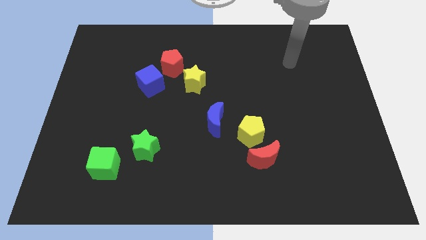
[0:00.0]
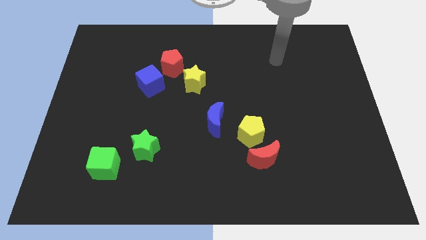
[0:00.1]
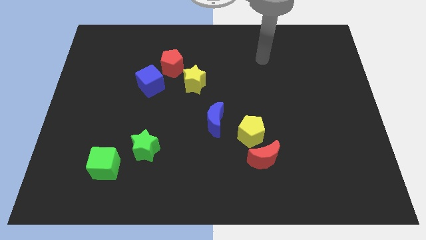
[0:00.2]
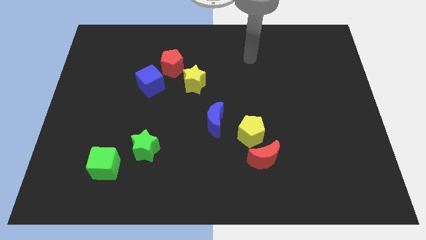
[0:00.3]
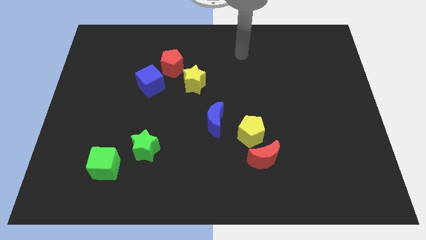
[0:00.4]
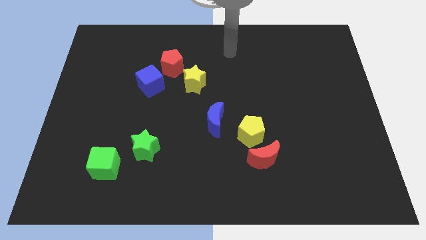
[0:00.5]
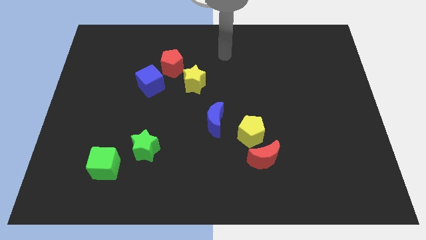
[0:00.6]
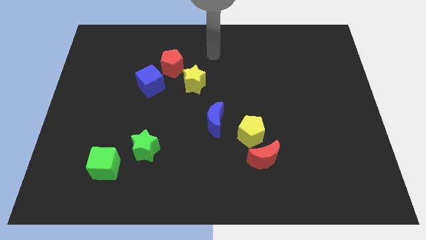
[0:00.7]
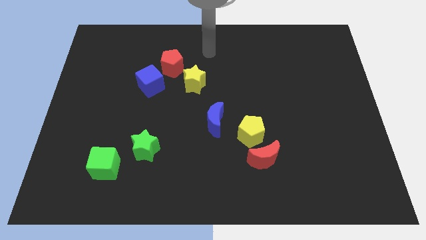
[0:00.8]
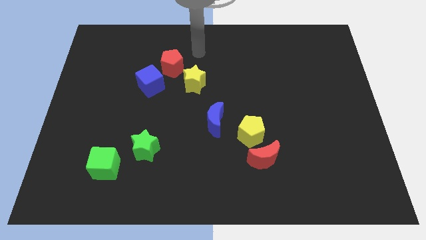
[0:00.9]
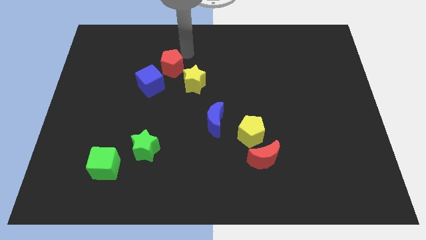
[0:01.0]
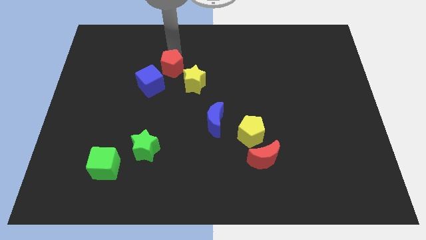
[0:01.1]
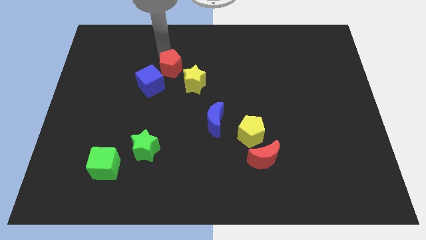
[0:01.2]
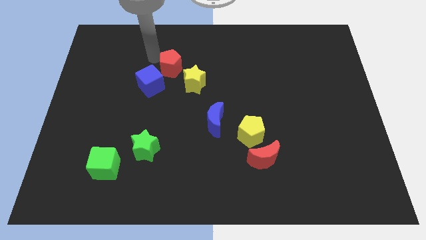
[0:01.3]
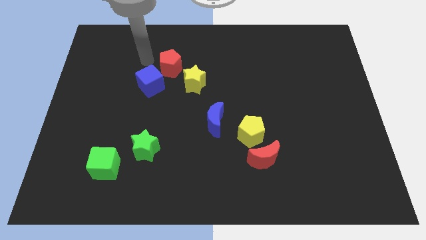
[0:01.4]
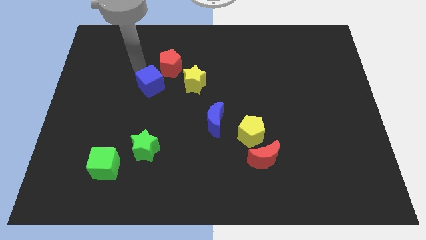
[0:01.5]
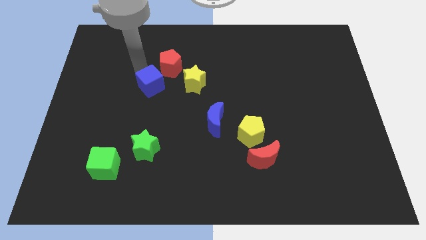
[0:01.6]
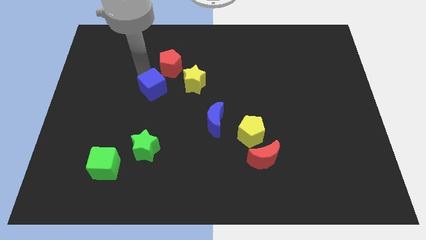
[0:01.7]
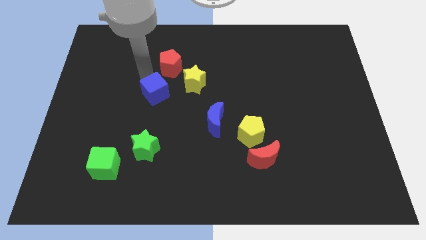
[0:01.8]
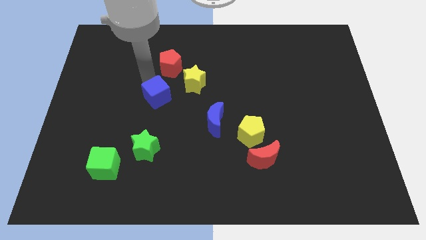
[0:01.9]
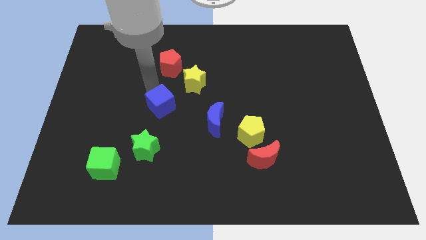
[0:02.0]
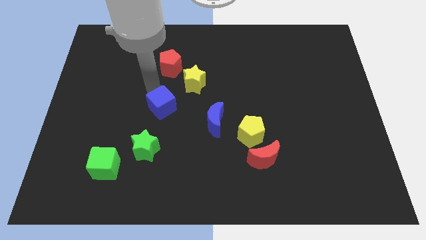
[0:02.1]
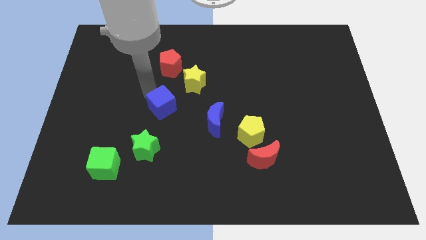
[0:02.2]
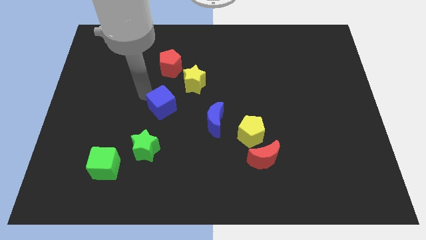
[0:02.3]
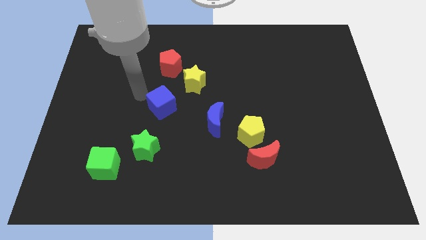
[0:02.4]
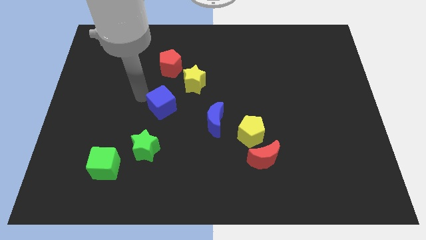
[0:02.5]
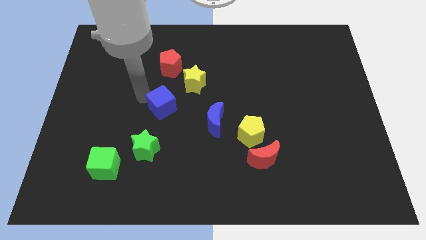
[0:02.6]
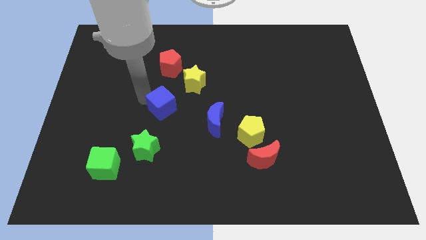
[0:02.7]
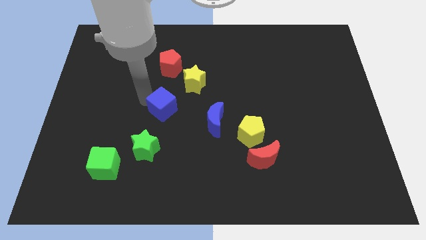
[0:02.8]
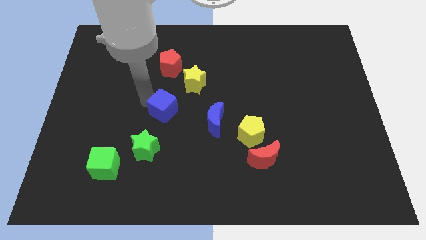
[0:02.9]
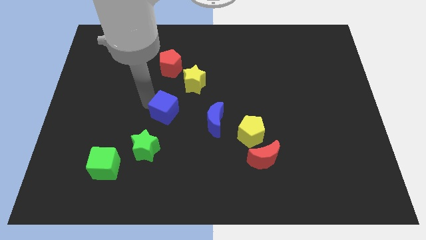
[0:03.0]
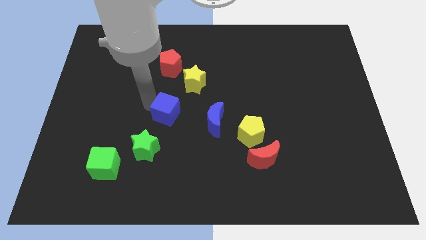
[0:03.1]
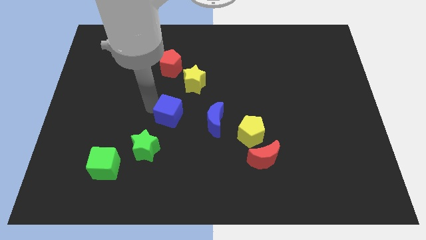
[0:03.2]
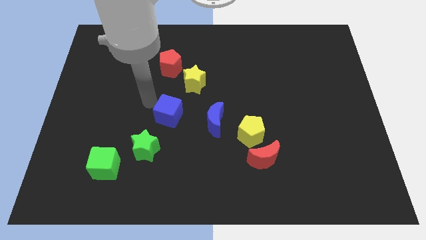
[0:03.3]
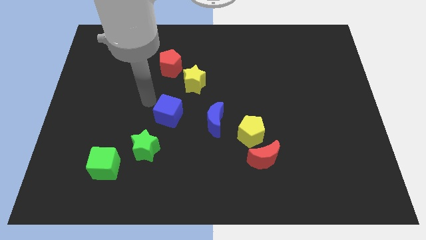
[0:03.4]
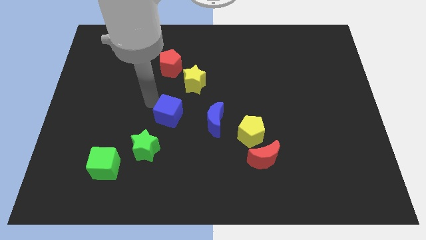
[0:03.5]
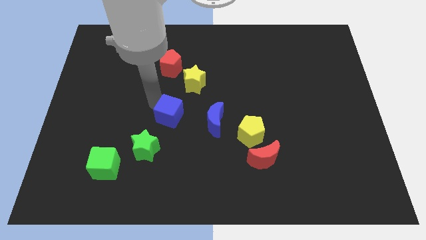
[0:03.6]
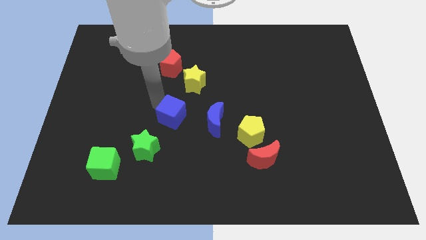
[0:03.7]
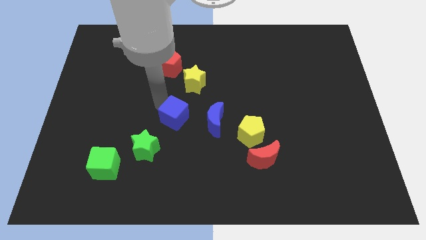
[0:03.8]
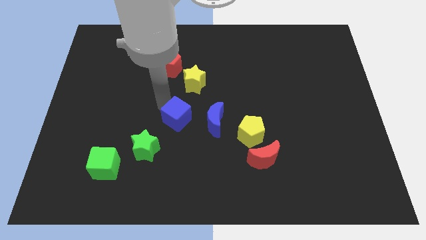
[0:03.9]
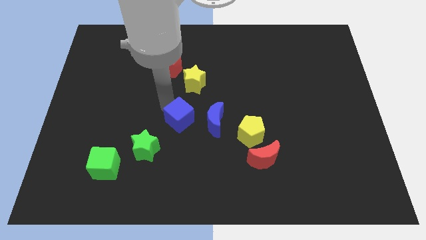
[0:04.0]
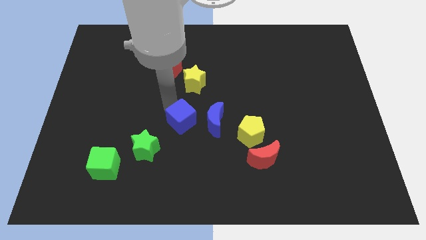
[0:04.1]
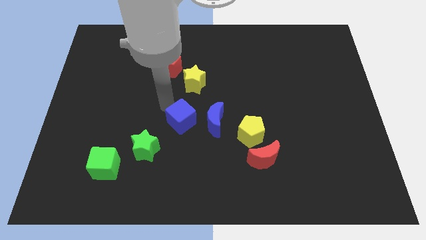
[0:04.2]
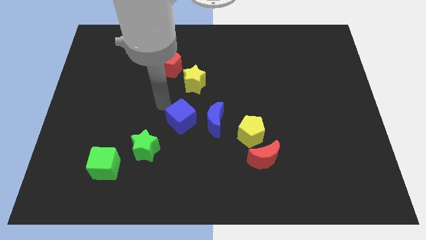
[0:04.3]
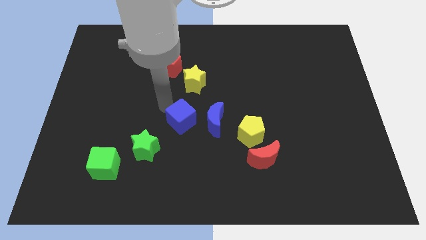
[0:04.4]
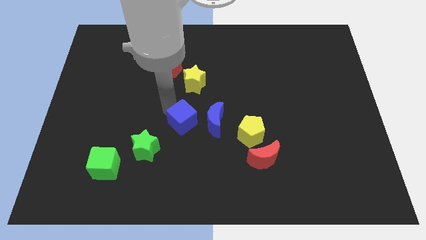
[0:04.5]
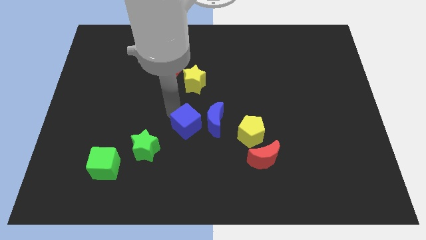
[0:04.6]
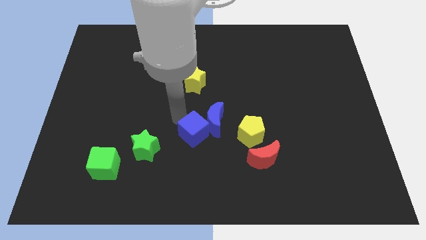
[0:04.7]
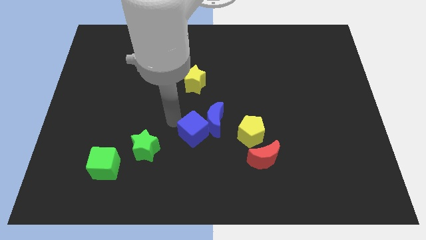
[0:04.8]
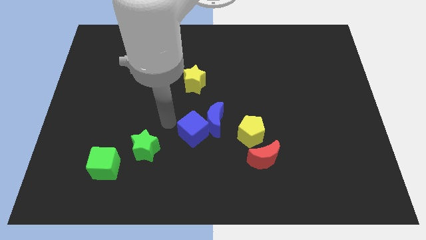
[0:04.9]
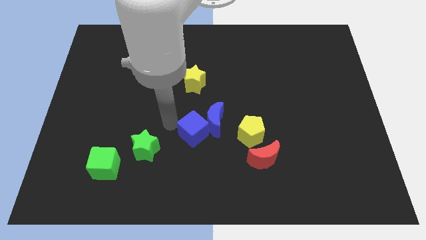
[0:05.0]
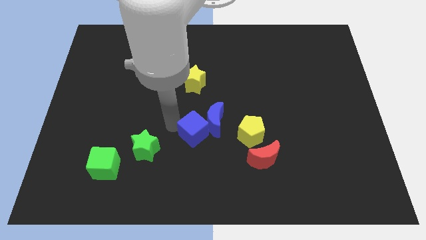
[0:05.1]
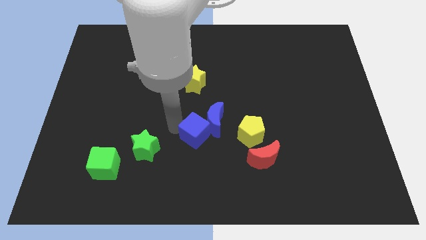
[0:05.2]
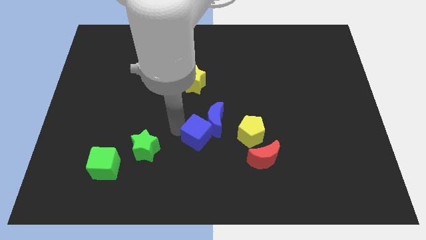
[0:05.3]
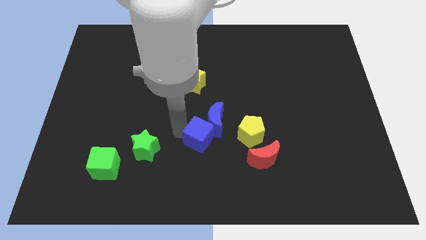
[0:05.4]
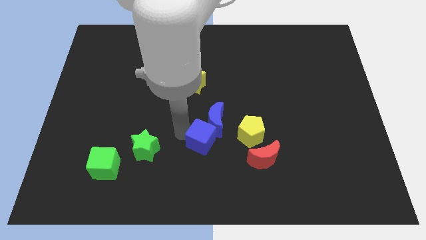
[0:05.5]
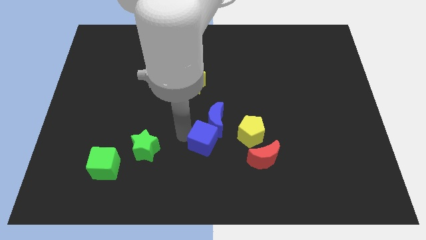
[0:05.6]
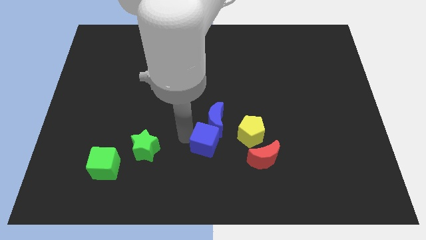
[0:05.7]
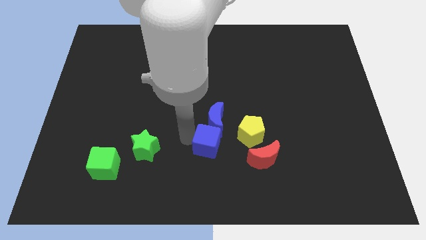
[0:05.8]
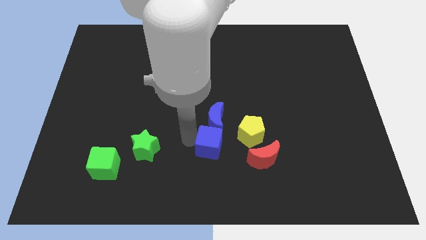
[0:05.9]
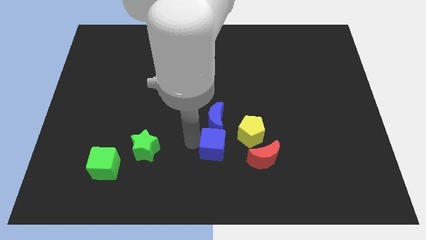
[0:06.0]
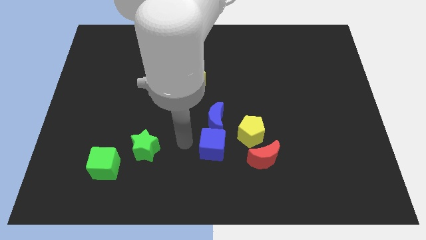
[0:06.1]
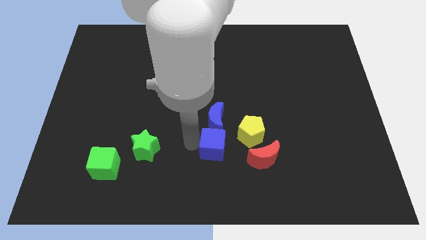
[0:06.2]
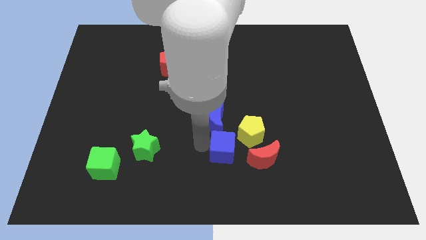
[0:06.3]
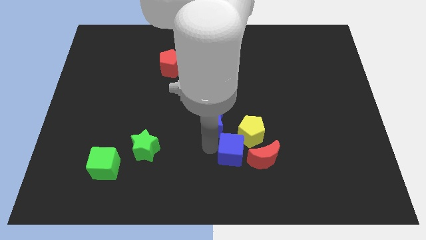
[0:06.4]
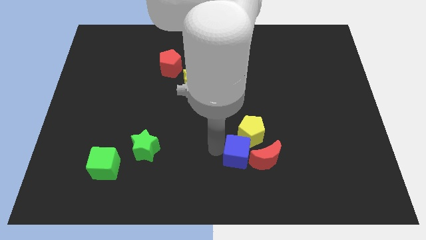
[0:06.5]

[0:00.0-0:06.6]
push the blue cube towards the red moon

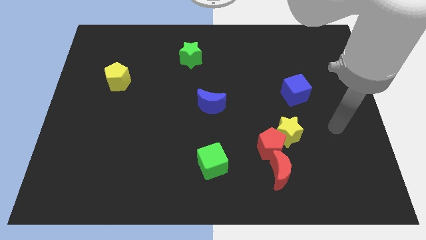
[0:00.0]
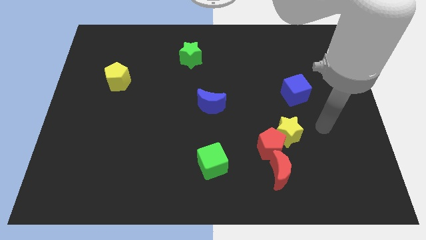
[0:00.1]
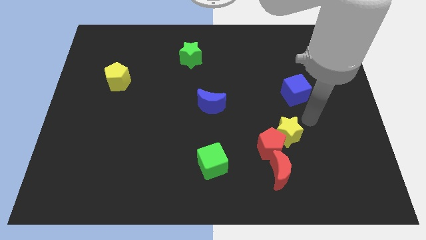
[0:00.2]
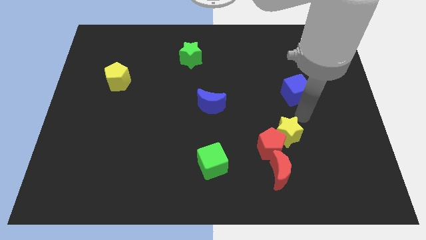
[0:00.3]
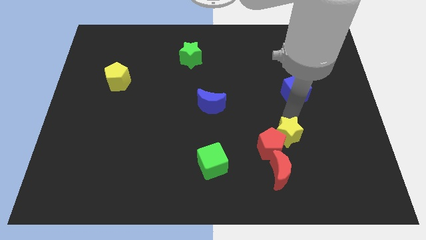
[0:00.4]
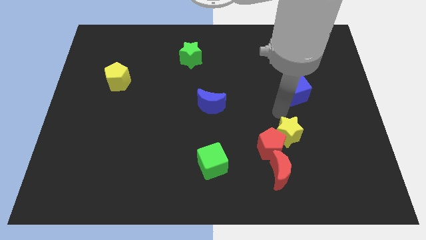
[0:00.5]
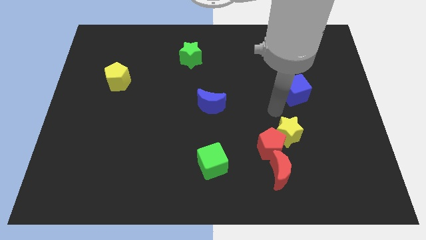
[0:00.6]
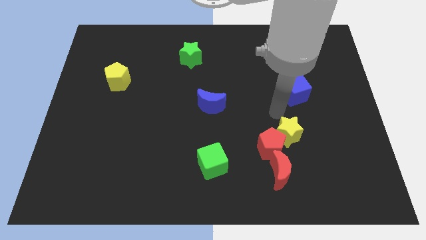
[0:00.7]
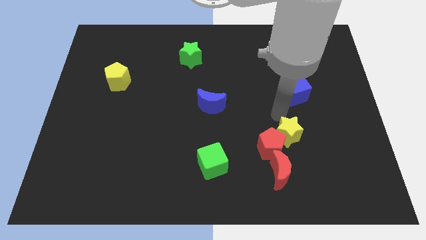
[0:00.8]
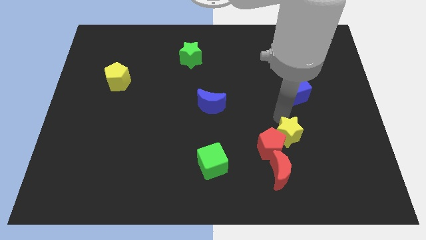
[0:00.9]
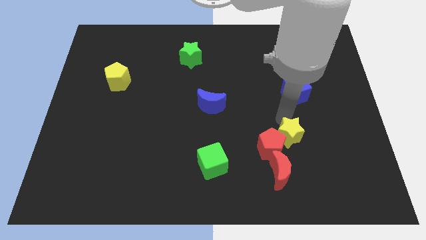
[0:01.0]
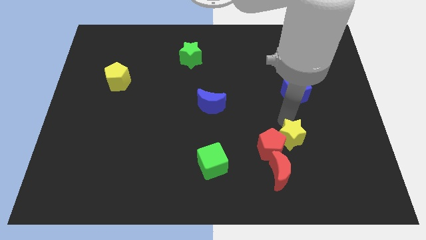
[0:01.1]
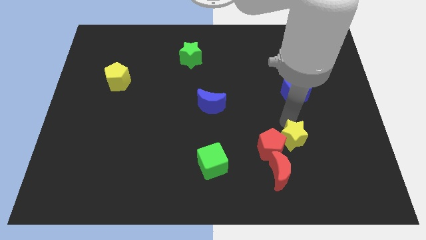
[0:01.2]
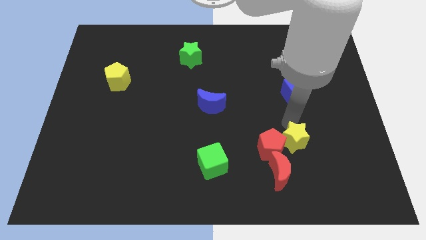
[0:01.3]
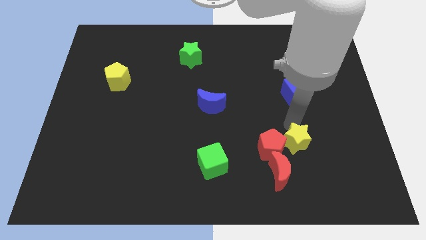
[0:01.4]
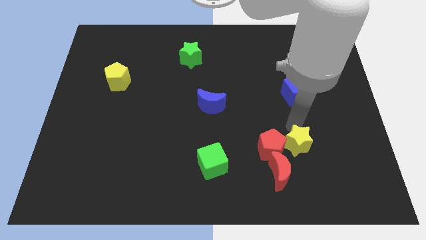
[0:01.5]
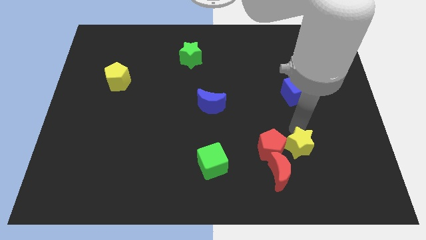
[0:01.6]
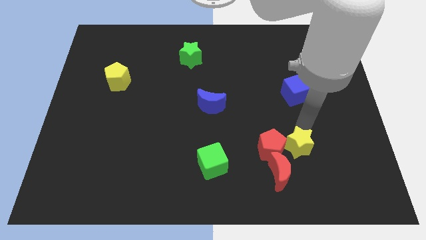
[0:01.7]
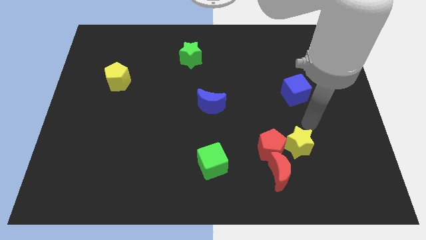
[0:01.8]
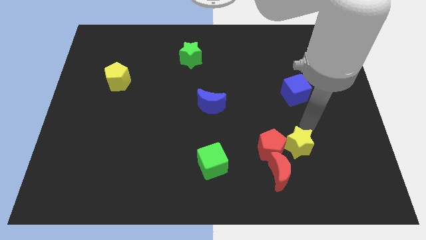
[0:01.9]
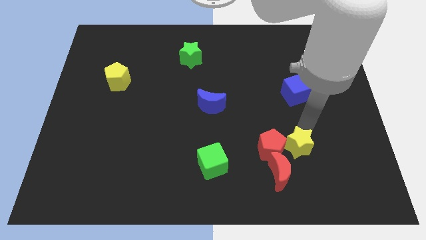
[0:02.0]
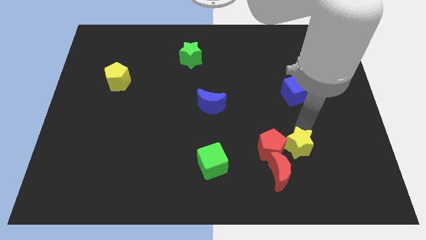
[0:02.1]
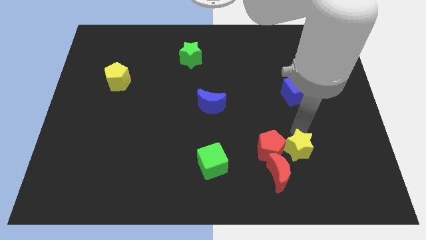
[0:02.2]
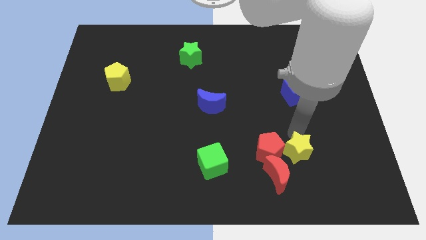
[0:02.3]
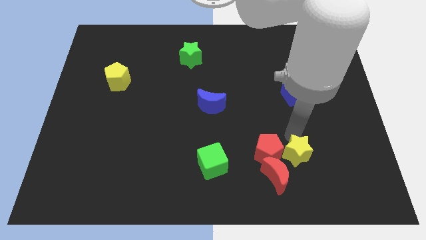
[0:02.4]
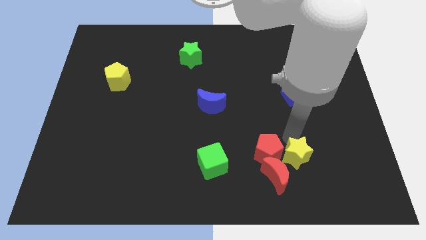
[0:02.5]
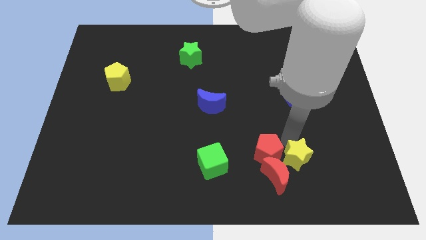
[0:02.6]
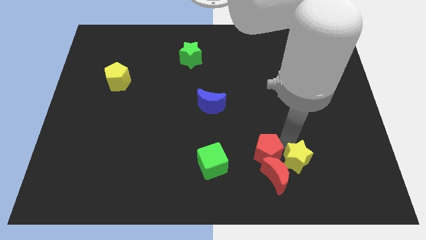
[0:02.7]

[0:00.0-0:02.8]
slide the yellow star next to the red moon
